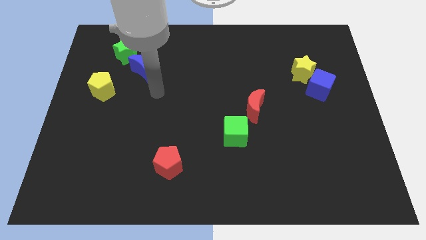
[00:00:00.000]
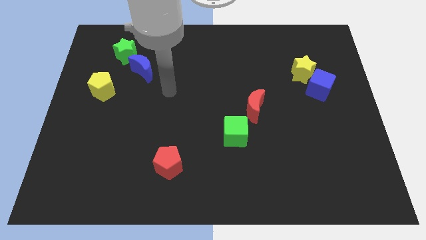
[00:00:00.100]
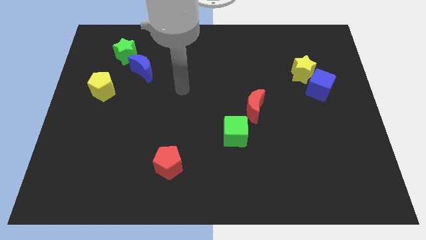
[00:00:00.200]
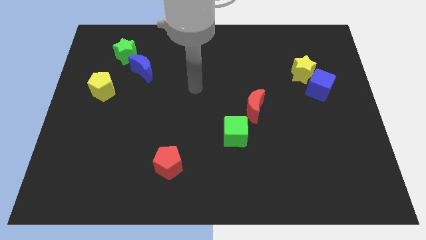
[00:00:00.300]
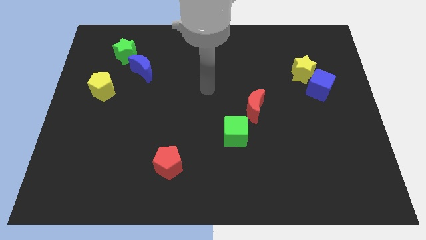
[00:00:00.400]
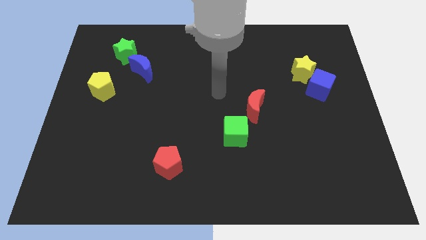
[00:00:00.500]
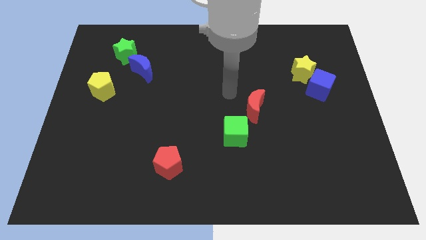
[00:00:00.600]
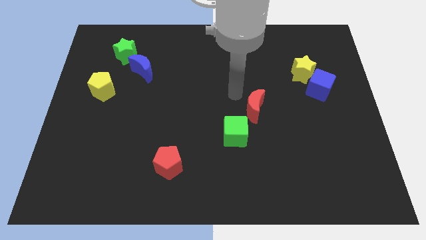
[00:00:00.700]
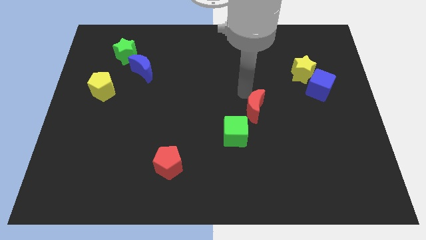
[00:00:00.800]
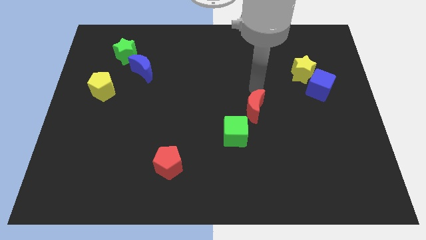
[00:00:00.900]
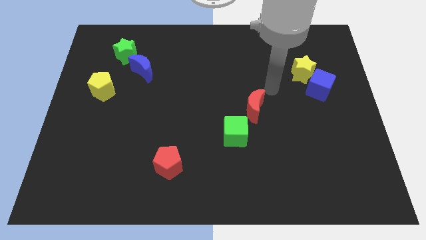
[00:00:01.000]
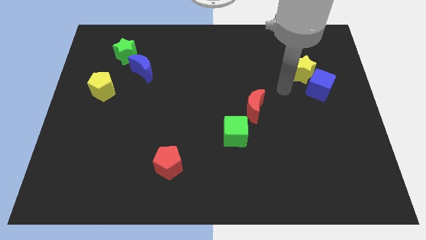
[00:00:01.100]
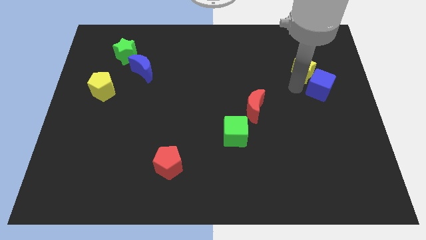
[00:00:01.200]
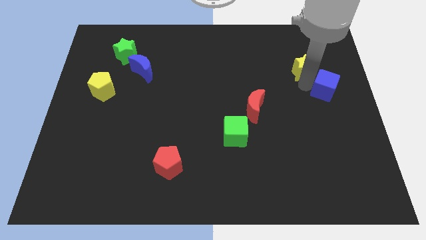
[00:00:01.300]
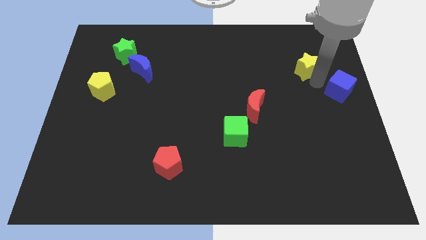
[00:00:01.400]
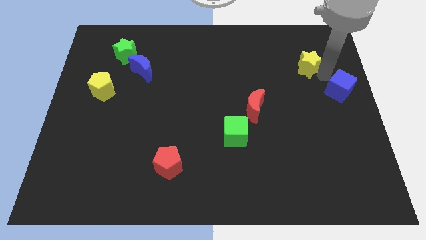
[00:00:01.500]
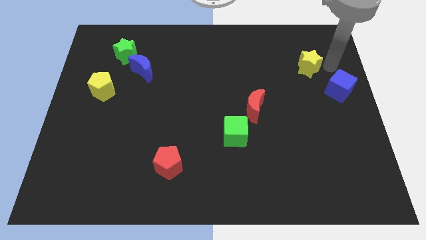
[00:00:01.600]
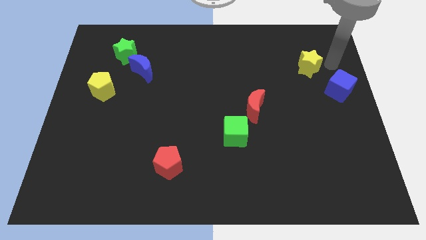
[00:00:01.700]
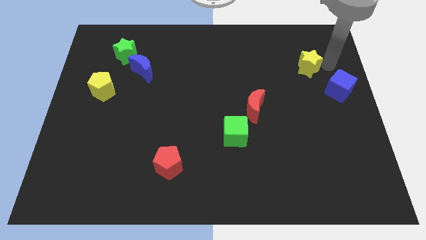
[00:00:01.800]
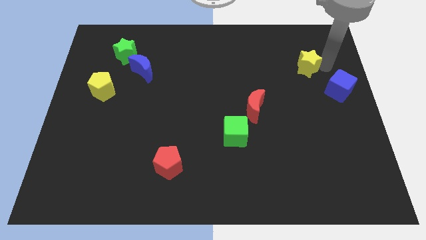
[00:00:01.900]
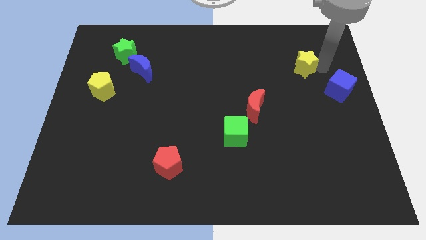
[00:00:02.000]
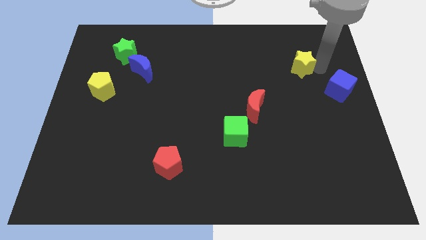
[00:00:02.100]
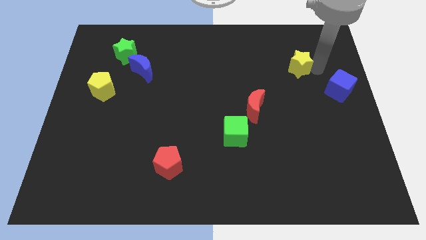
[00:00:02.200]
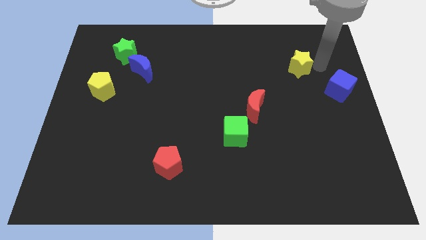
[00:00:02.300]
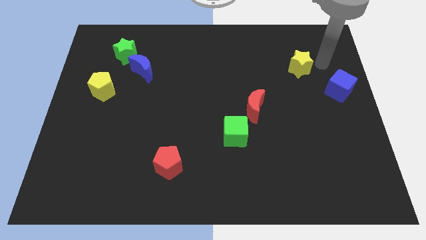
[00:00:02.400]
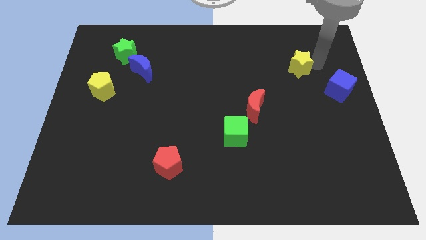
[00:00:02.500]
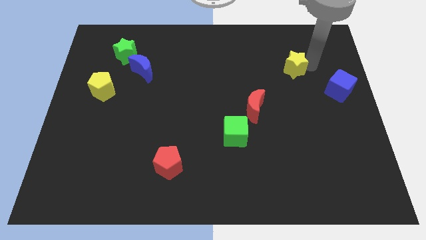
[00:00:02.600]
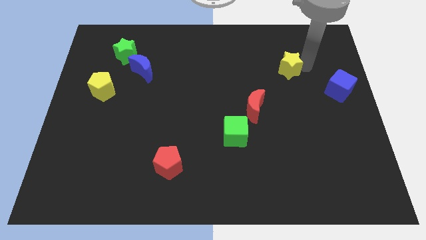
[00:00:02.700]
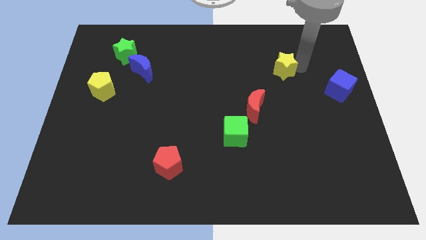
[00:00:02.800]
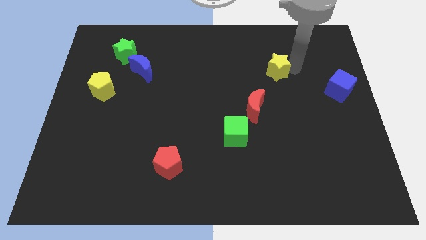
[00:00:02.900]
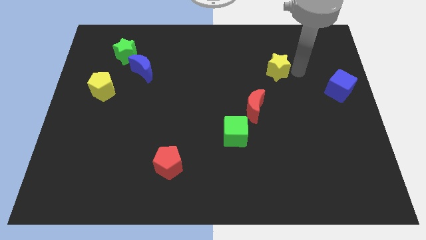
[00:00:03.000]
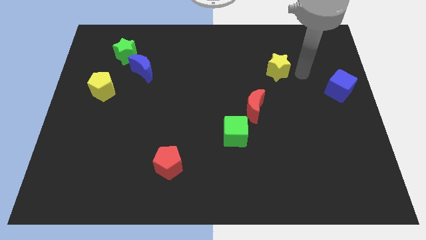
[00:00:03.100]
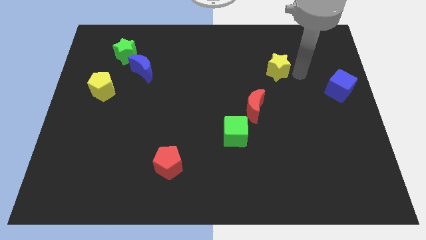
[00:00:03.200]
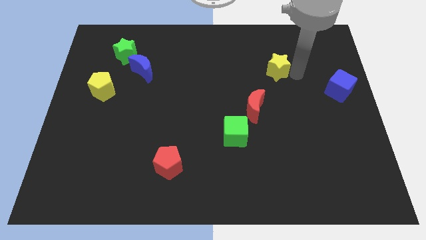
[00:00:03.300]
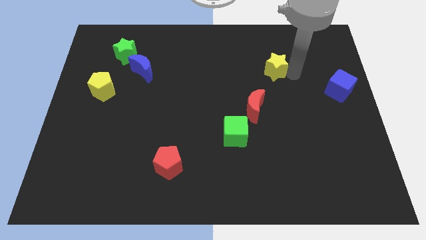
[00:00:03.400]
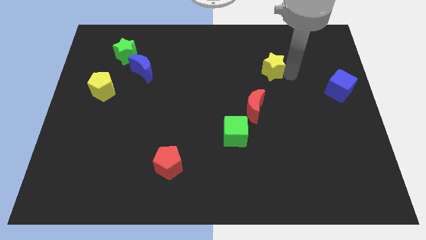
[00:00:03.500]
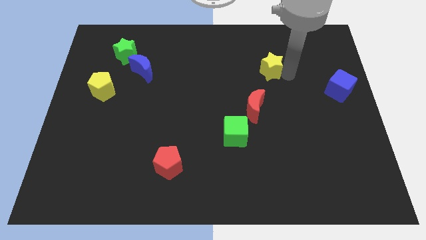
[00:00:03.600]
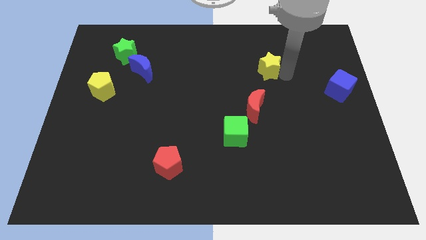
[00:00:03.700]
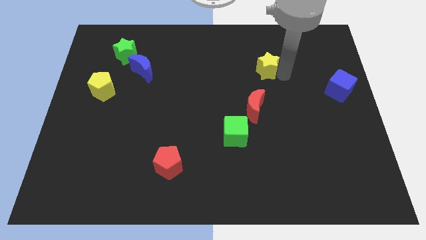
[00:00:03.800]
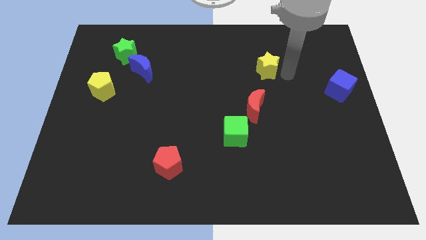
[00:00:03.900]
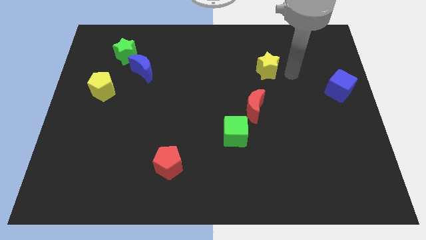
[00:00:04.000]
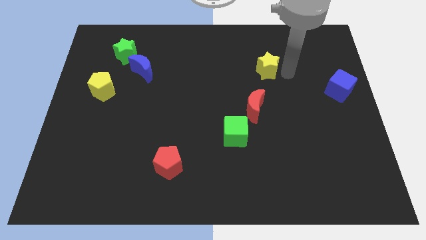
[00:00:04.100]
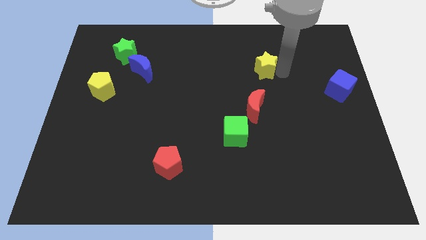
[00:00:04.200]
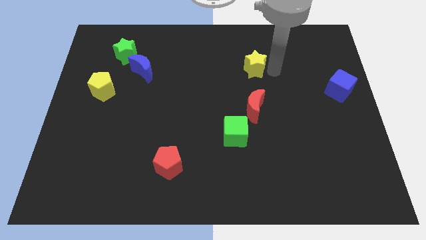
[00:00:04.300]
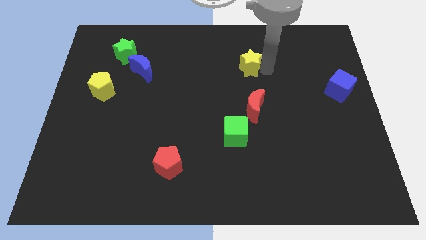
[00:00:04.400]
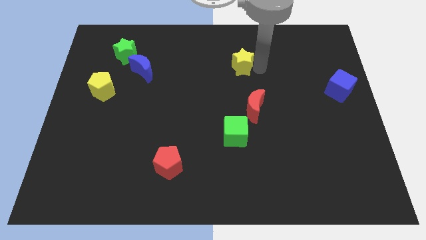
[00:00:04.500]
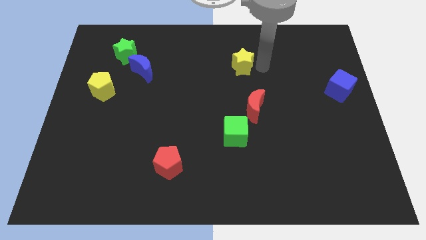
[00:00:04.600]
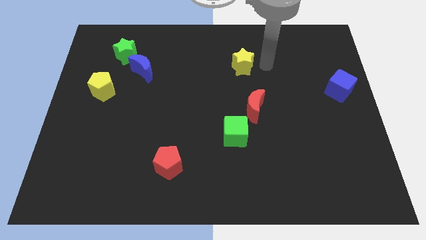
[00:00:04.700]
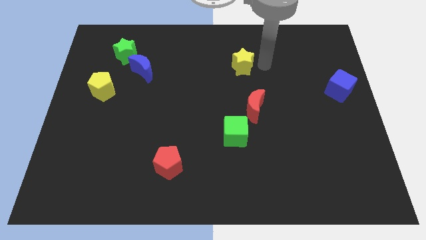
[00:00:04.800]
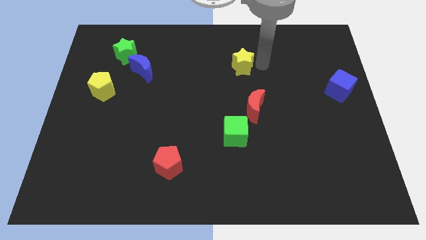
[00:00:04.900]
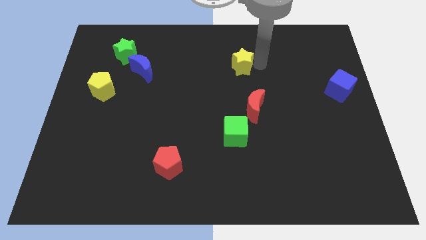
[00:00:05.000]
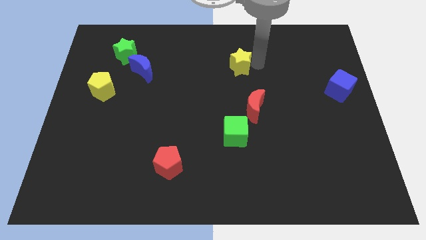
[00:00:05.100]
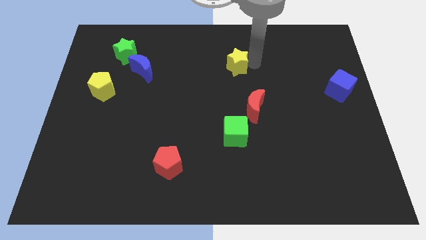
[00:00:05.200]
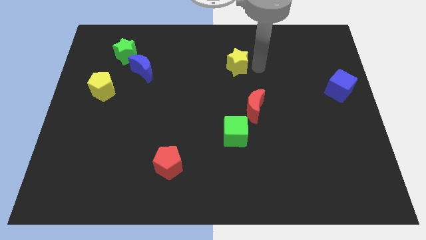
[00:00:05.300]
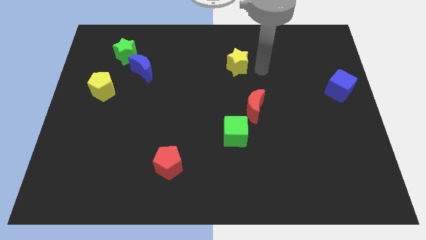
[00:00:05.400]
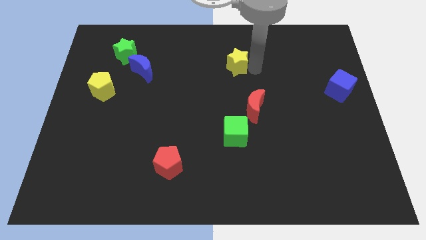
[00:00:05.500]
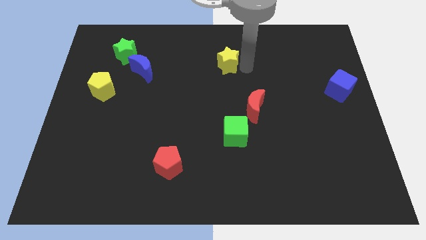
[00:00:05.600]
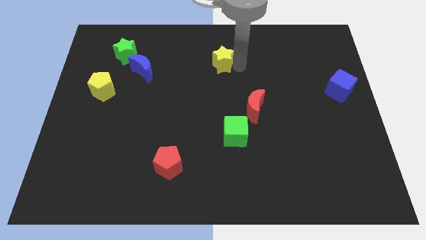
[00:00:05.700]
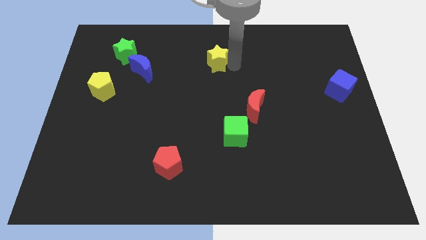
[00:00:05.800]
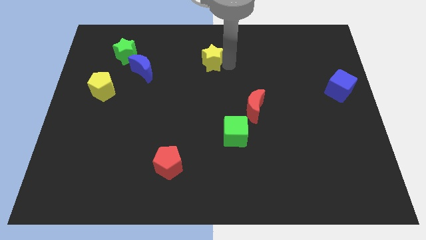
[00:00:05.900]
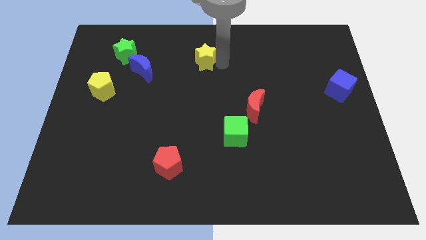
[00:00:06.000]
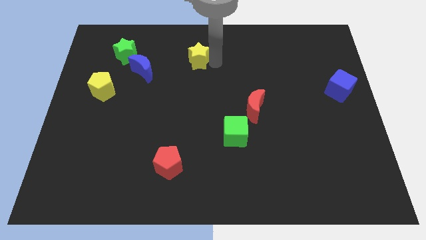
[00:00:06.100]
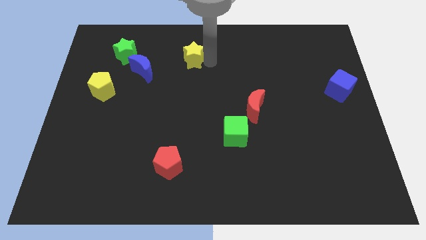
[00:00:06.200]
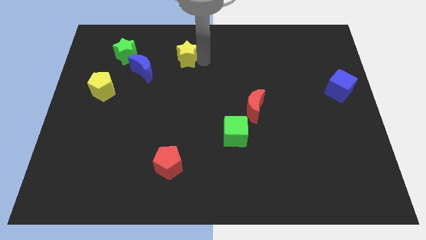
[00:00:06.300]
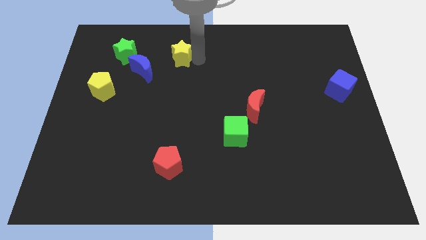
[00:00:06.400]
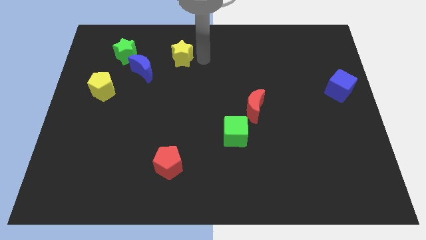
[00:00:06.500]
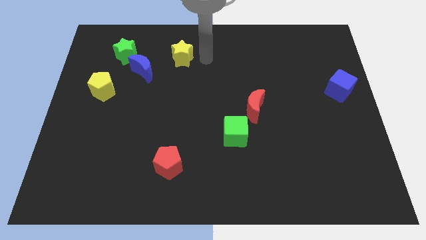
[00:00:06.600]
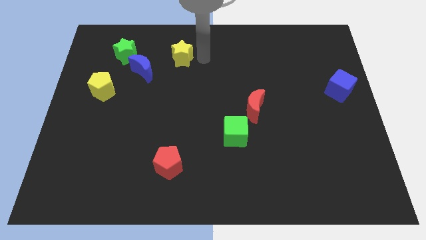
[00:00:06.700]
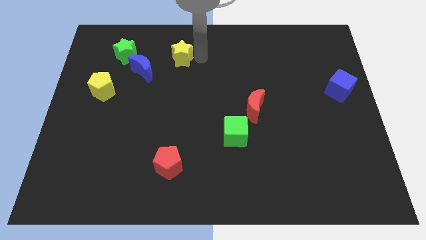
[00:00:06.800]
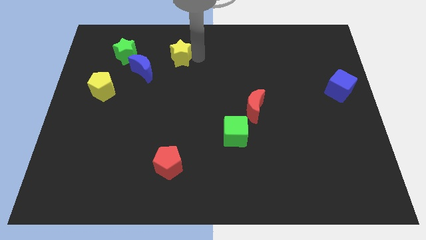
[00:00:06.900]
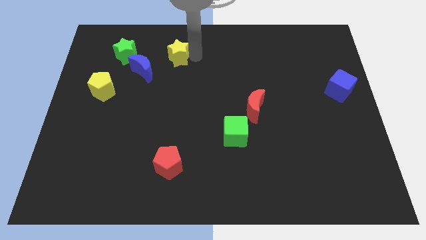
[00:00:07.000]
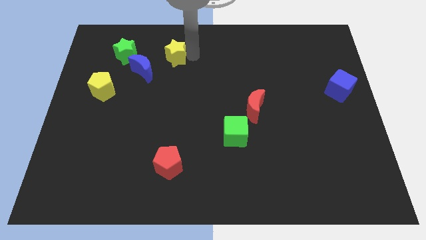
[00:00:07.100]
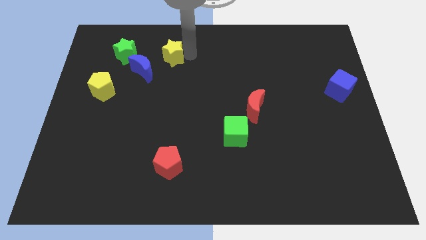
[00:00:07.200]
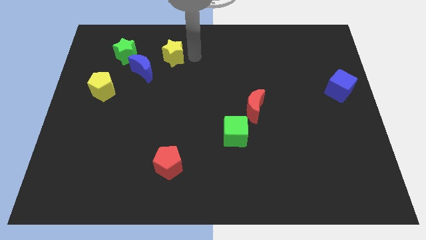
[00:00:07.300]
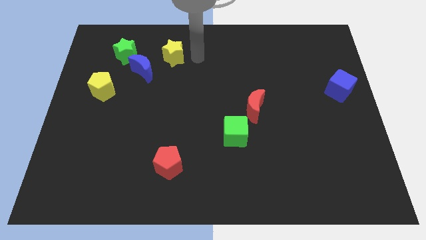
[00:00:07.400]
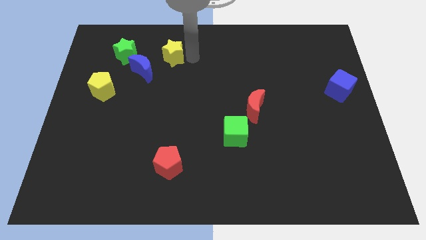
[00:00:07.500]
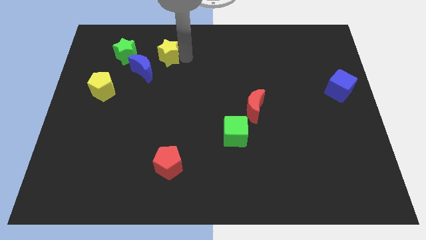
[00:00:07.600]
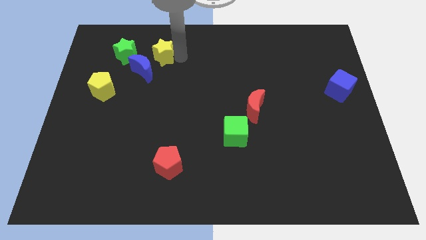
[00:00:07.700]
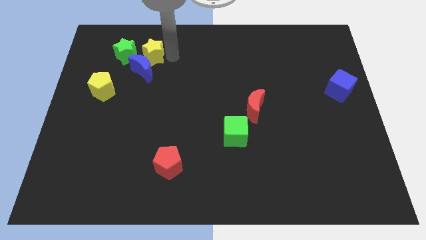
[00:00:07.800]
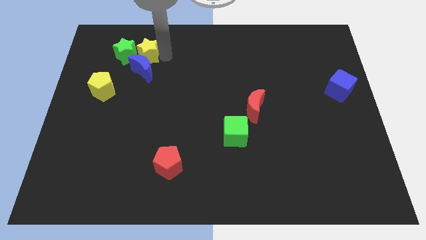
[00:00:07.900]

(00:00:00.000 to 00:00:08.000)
move the yellow star next to the green star
